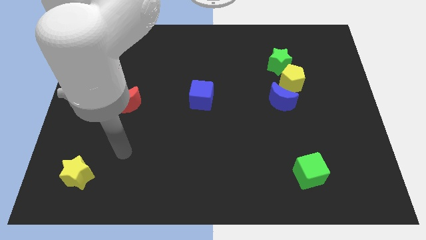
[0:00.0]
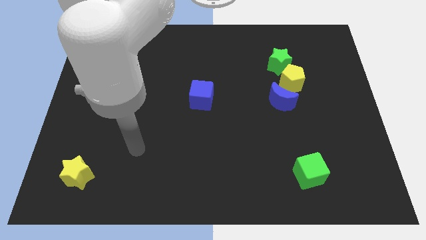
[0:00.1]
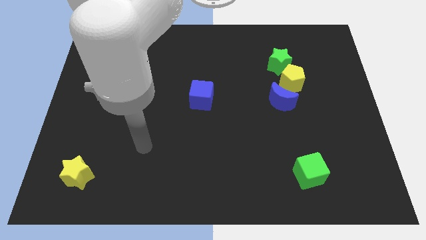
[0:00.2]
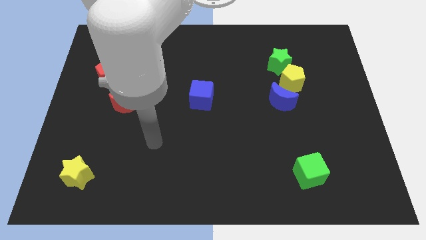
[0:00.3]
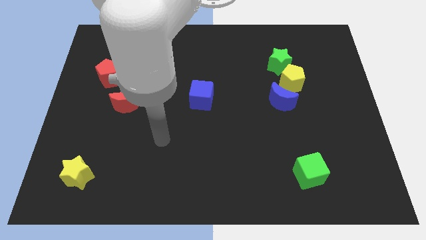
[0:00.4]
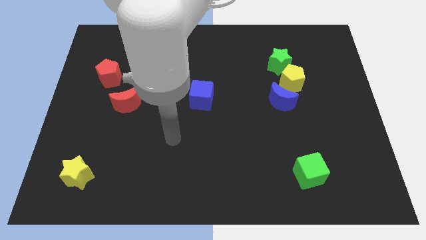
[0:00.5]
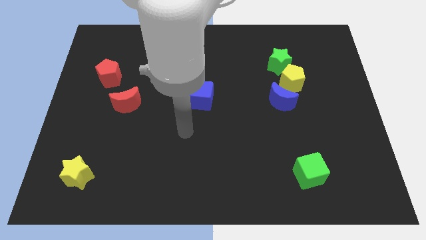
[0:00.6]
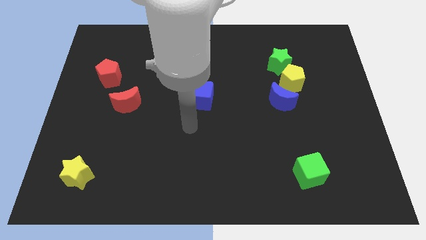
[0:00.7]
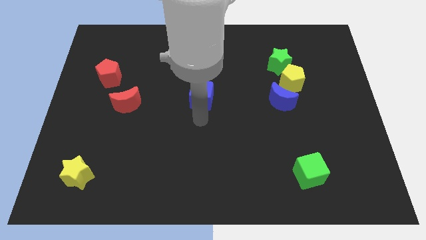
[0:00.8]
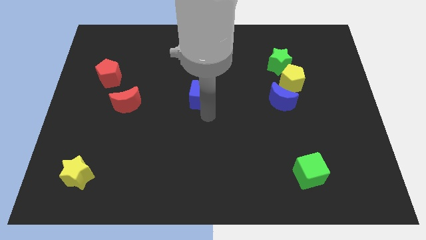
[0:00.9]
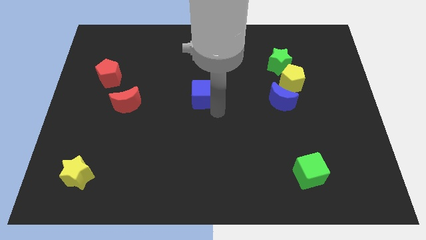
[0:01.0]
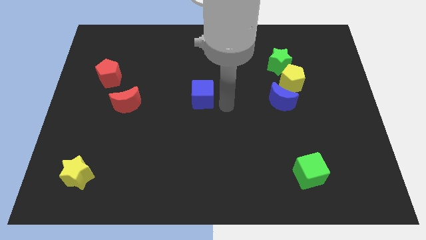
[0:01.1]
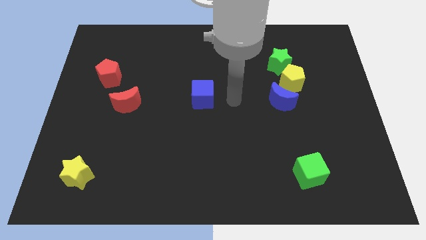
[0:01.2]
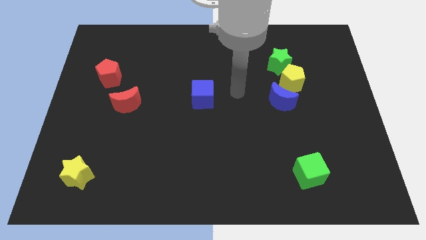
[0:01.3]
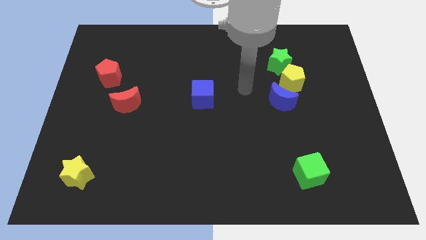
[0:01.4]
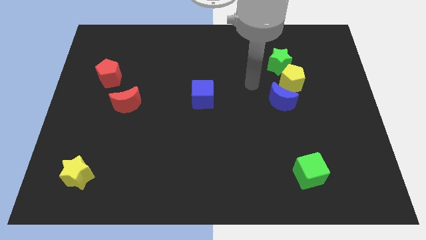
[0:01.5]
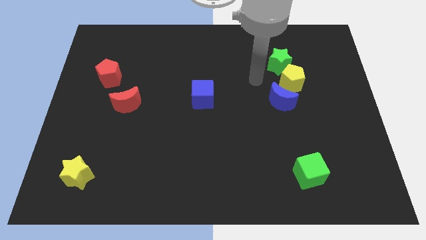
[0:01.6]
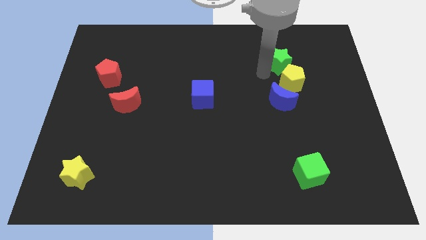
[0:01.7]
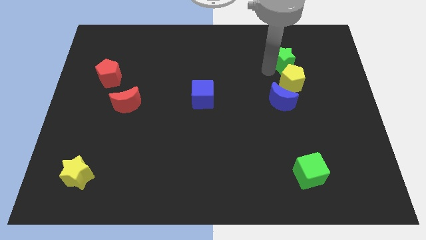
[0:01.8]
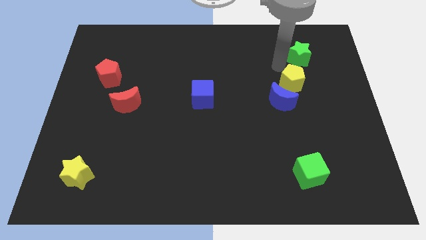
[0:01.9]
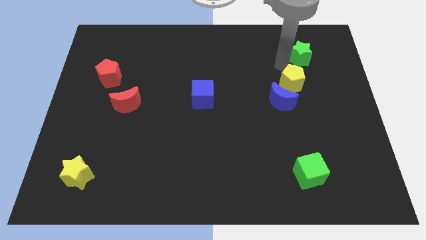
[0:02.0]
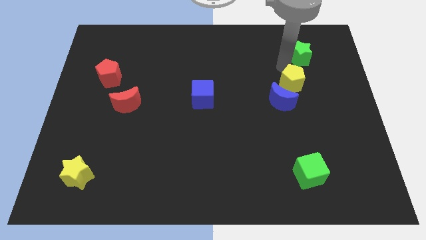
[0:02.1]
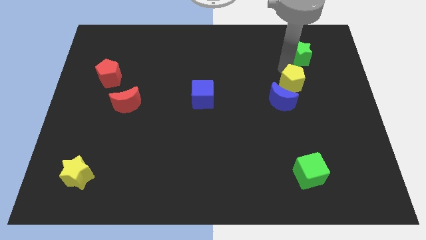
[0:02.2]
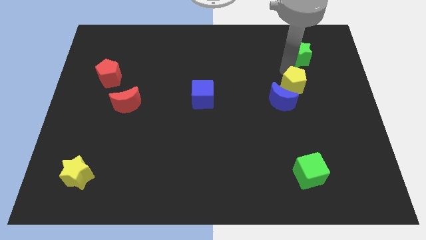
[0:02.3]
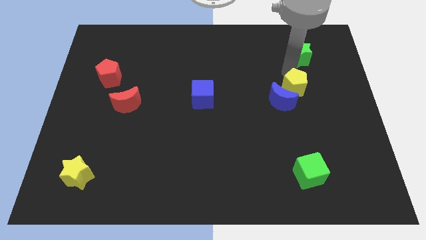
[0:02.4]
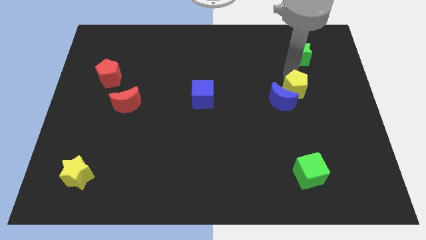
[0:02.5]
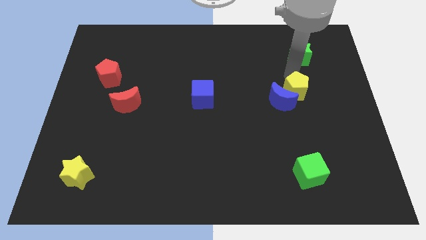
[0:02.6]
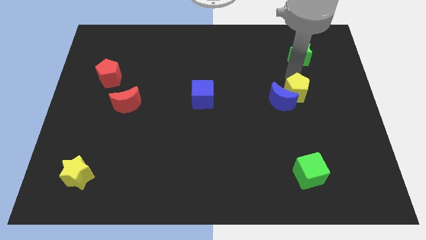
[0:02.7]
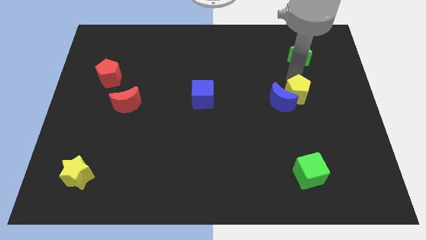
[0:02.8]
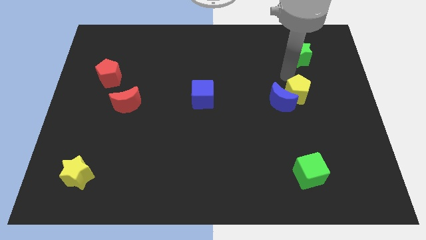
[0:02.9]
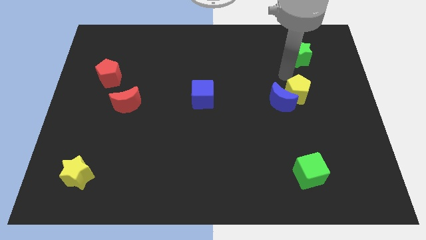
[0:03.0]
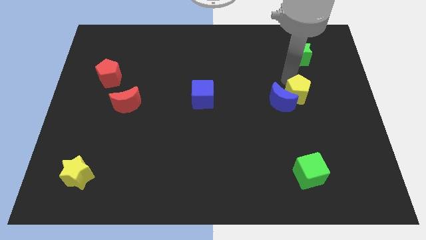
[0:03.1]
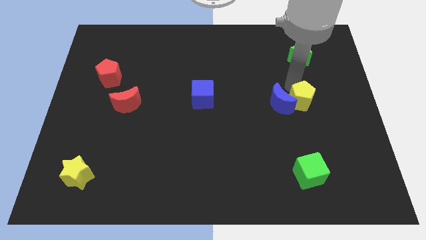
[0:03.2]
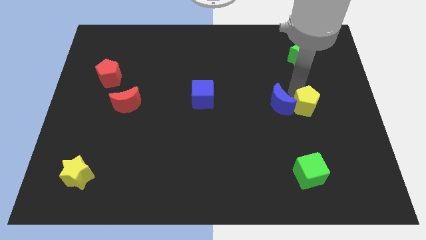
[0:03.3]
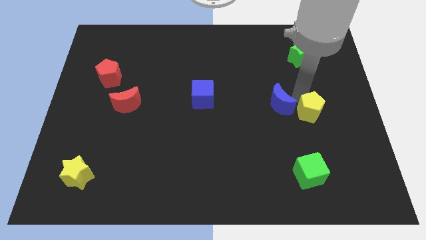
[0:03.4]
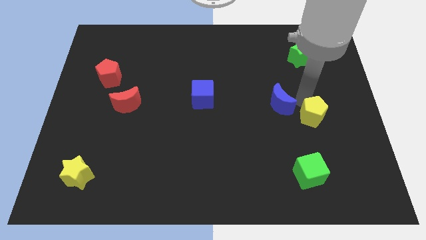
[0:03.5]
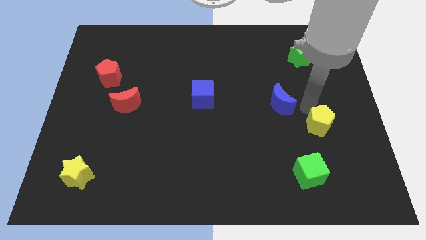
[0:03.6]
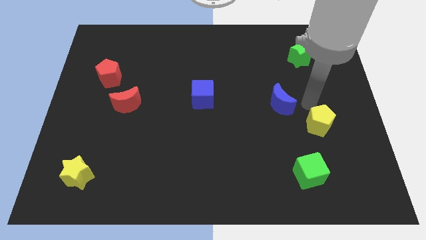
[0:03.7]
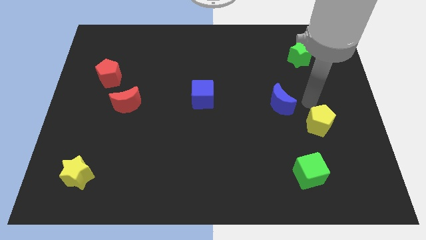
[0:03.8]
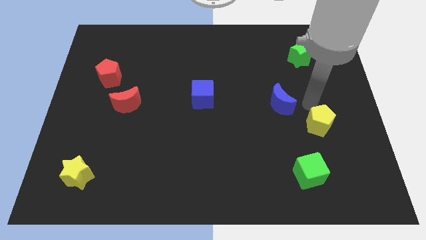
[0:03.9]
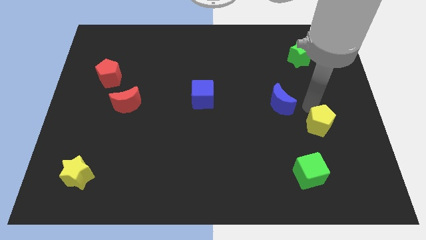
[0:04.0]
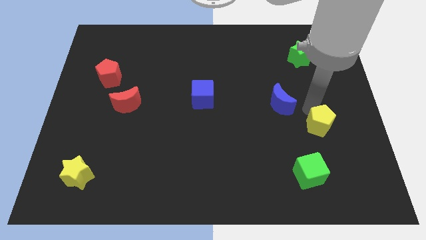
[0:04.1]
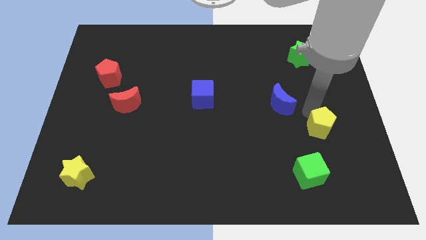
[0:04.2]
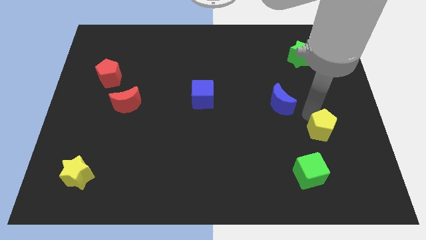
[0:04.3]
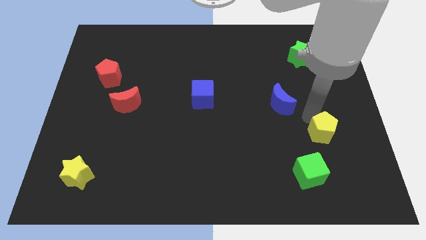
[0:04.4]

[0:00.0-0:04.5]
move the yellow pentagon diagonally up and to the right of the green cube

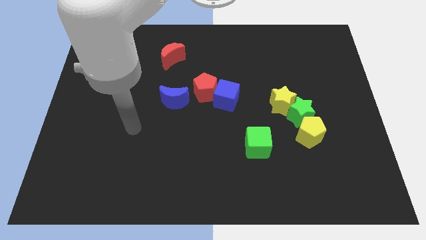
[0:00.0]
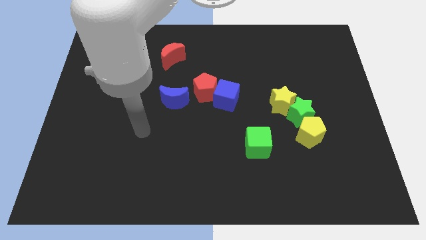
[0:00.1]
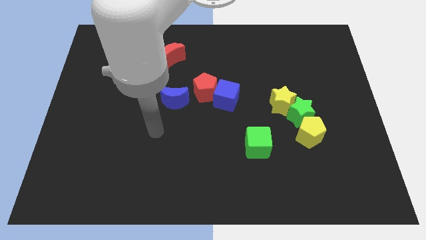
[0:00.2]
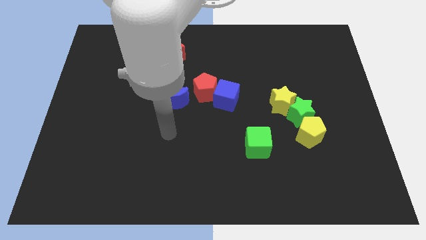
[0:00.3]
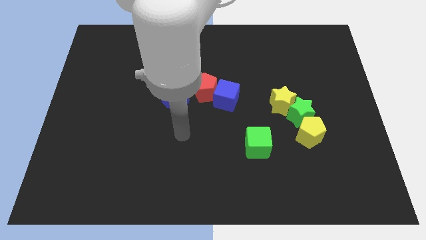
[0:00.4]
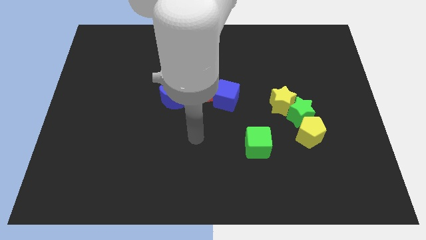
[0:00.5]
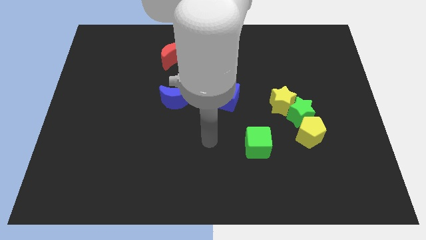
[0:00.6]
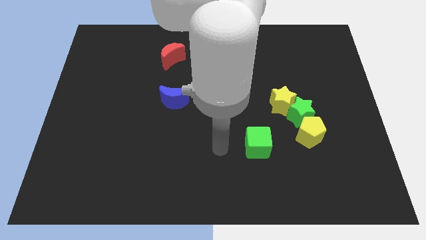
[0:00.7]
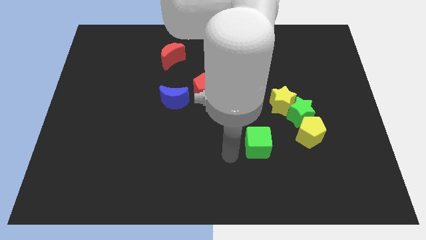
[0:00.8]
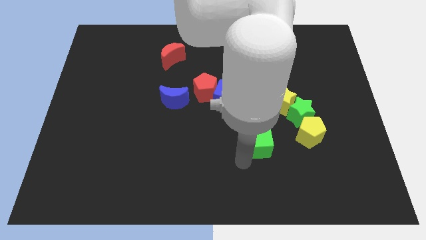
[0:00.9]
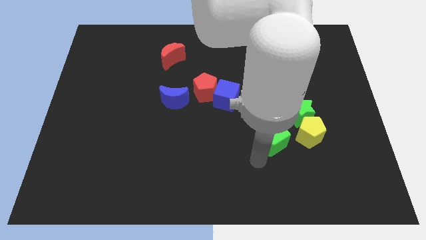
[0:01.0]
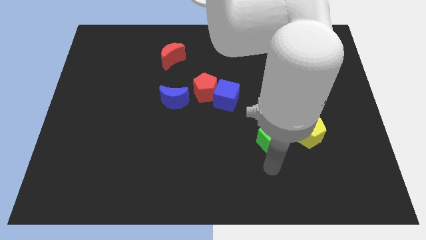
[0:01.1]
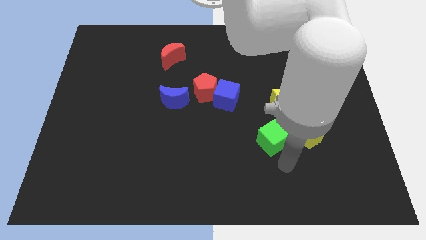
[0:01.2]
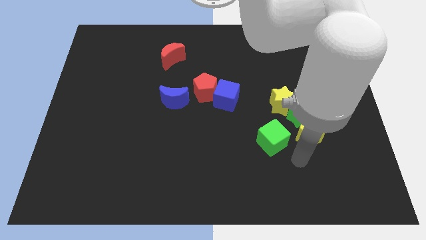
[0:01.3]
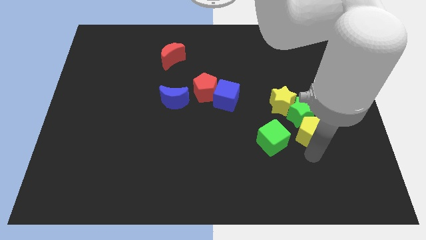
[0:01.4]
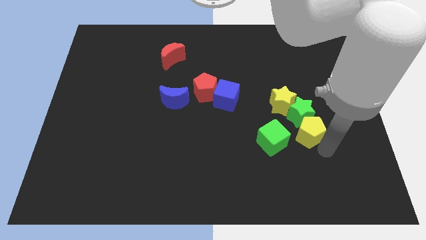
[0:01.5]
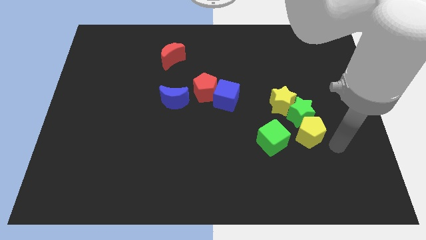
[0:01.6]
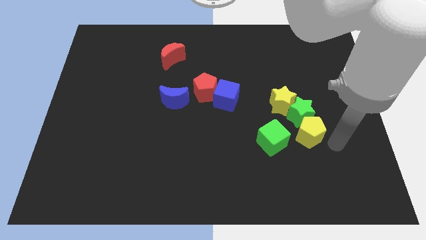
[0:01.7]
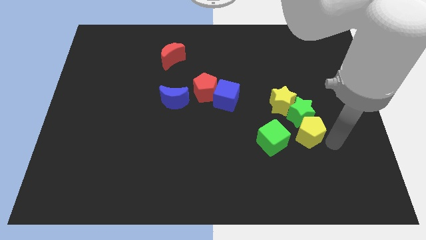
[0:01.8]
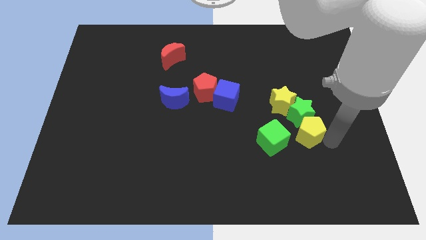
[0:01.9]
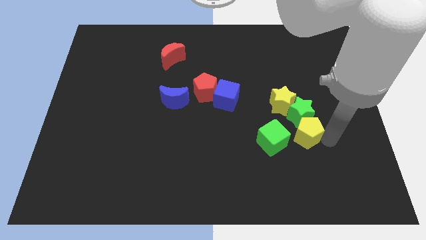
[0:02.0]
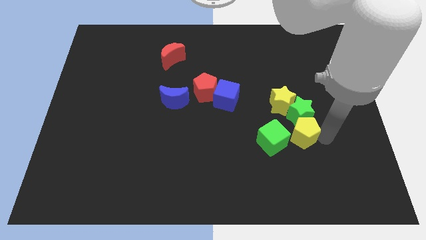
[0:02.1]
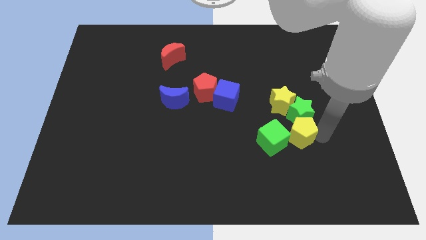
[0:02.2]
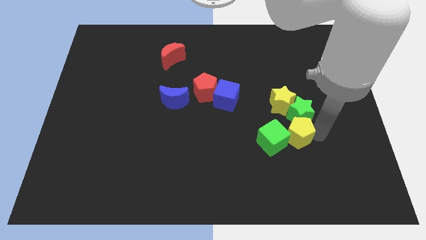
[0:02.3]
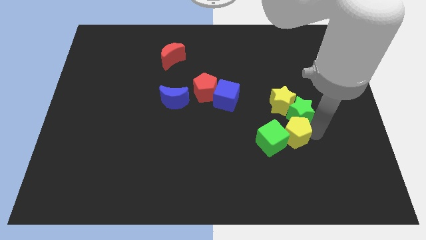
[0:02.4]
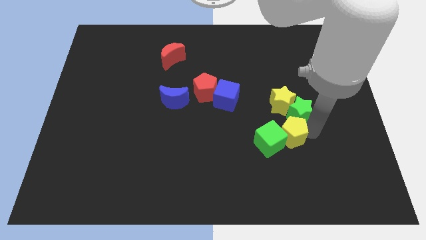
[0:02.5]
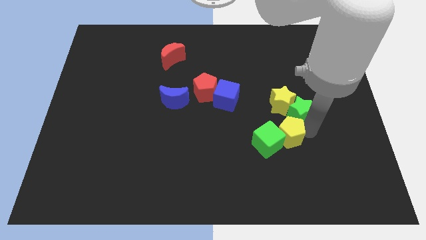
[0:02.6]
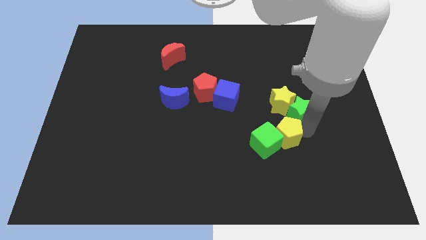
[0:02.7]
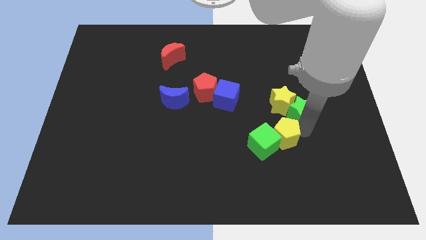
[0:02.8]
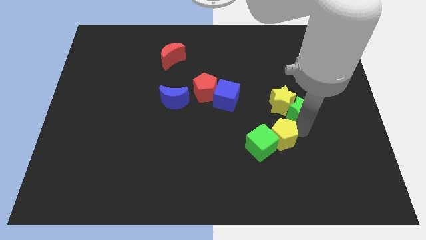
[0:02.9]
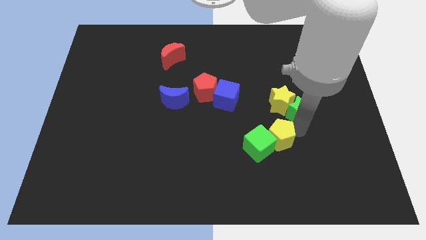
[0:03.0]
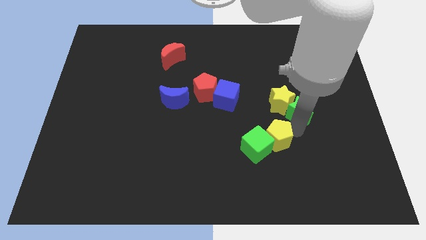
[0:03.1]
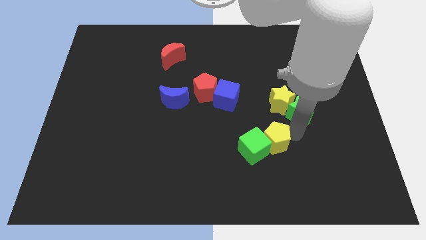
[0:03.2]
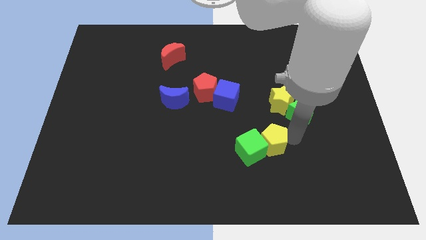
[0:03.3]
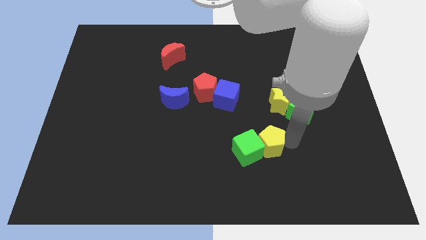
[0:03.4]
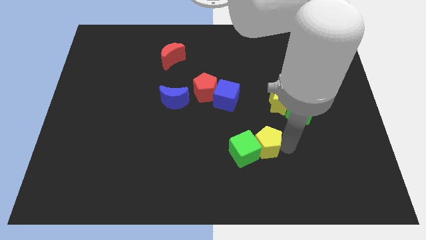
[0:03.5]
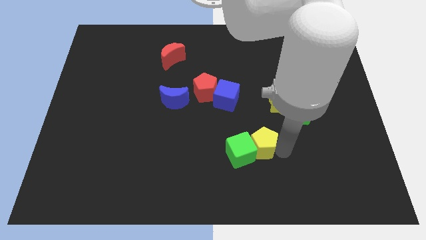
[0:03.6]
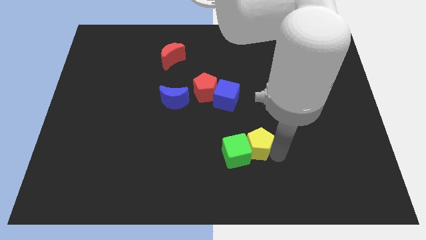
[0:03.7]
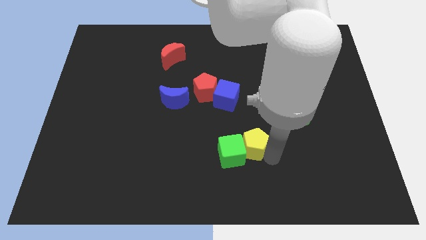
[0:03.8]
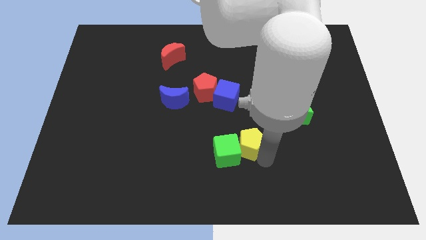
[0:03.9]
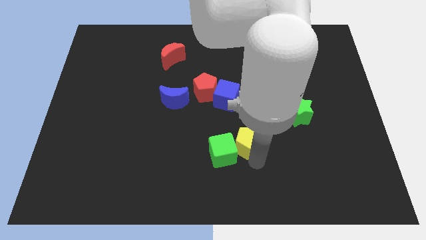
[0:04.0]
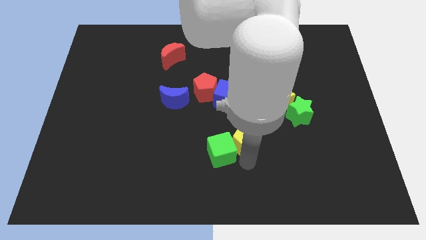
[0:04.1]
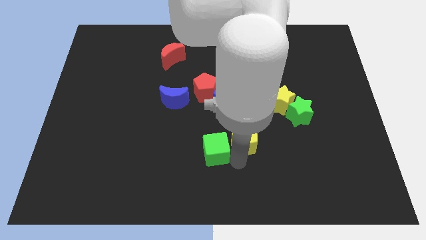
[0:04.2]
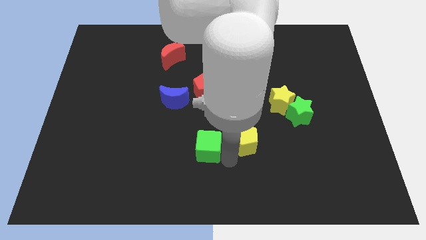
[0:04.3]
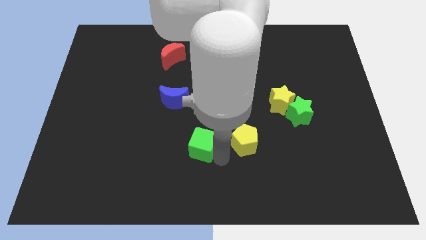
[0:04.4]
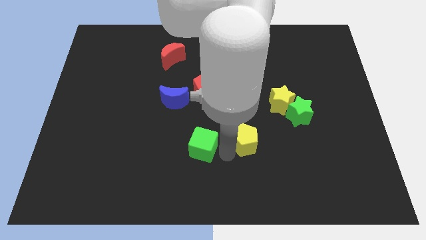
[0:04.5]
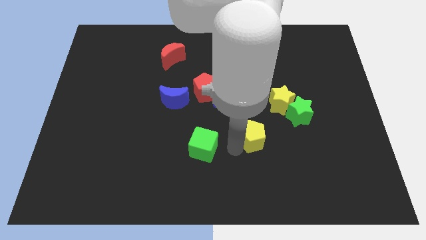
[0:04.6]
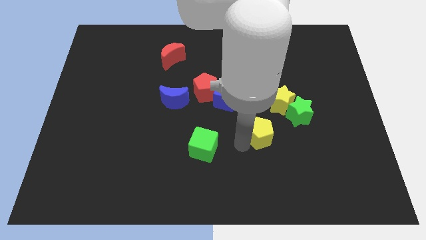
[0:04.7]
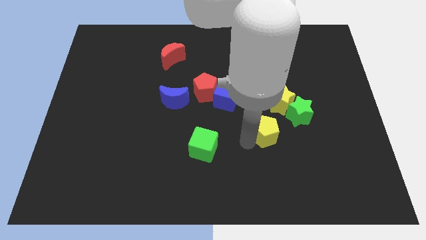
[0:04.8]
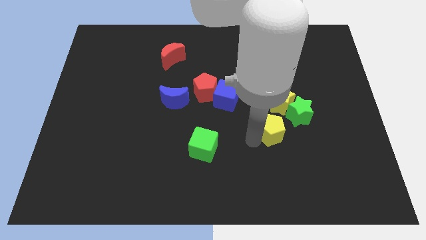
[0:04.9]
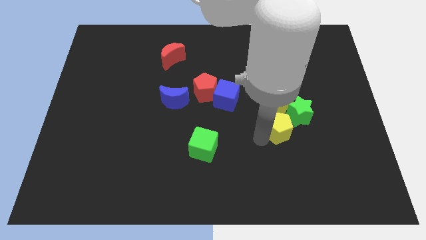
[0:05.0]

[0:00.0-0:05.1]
move the yellow pentagon just left of the green star
